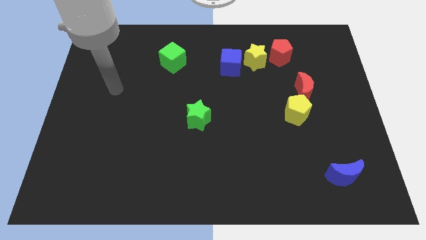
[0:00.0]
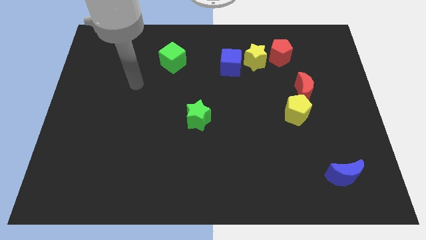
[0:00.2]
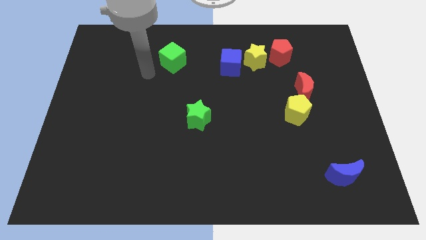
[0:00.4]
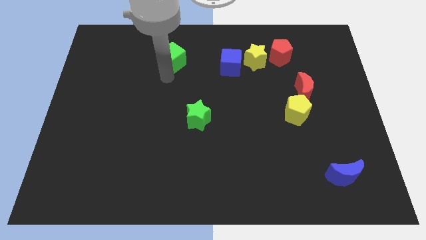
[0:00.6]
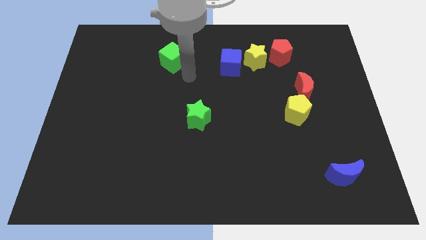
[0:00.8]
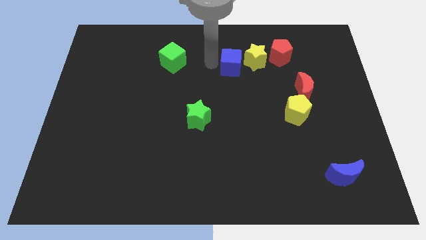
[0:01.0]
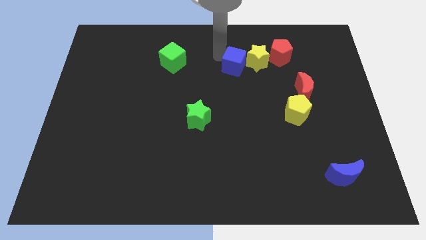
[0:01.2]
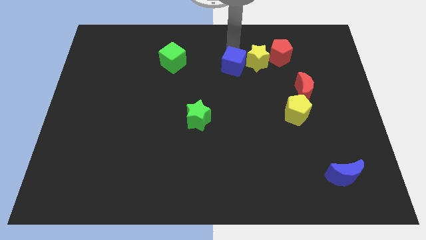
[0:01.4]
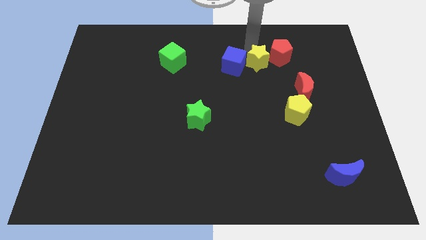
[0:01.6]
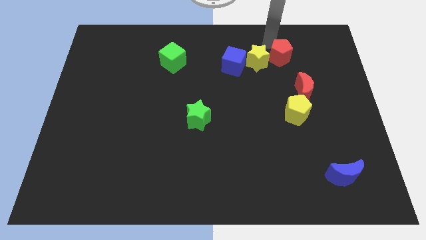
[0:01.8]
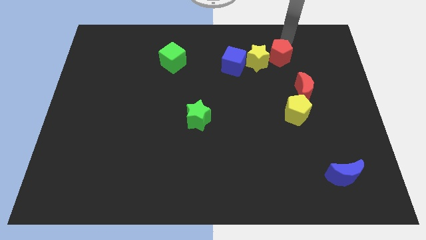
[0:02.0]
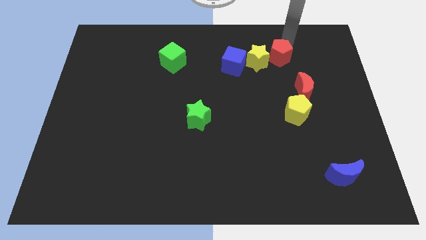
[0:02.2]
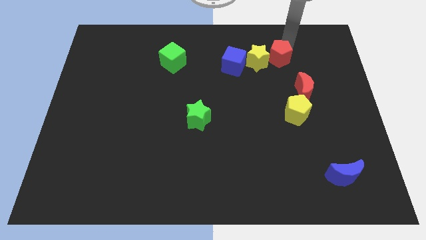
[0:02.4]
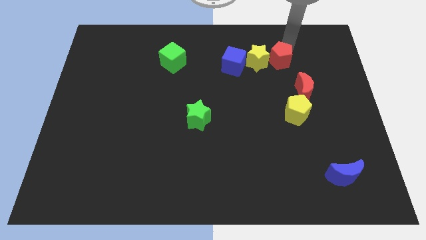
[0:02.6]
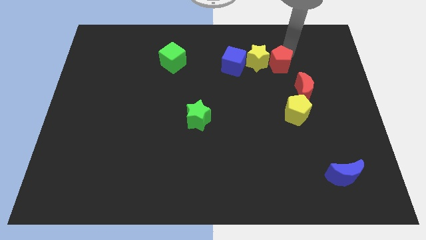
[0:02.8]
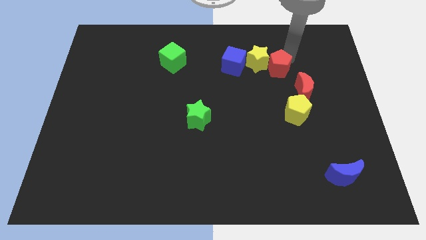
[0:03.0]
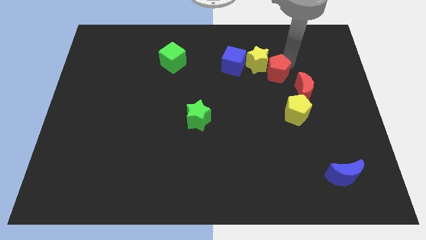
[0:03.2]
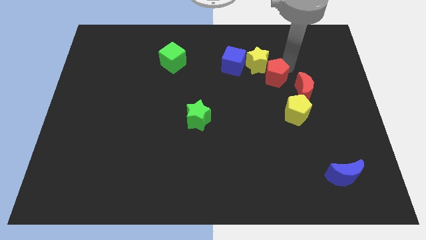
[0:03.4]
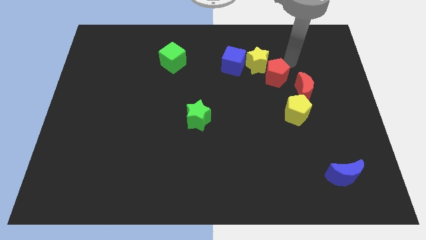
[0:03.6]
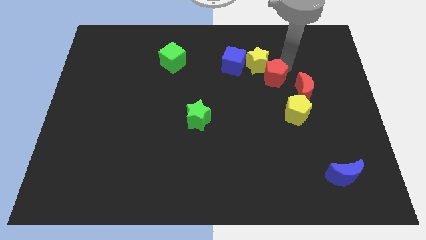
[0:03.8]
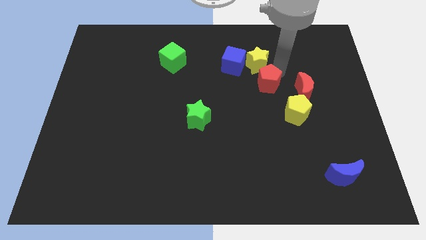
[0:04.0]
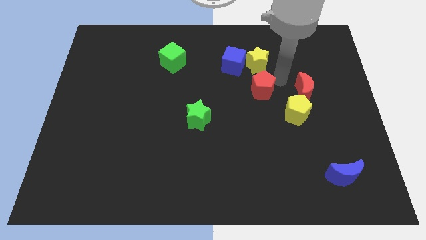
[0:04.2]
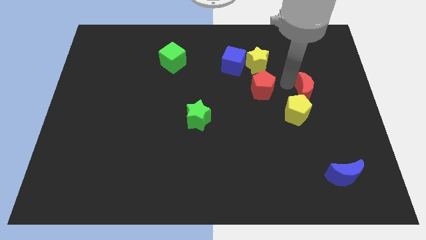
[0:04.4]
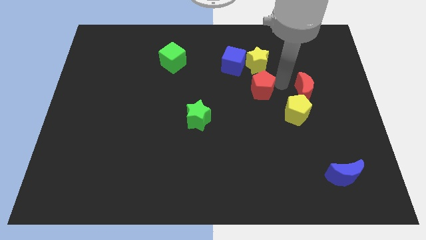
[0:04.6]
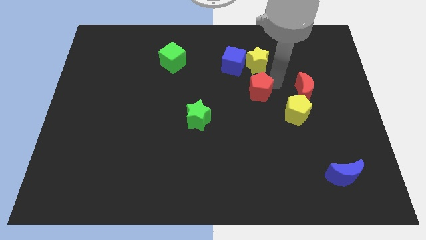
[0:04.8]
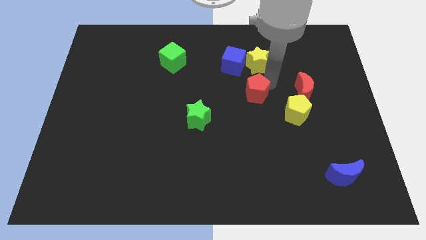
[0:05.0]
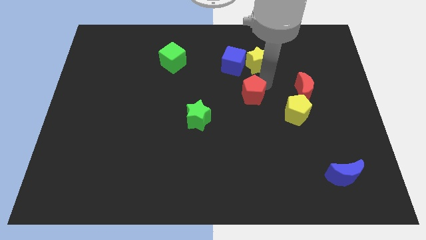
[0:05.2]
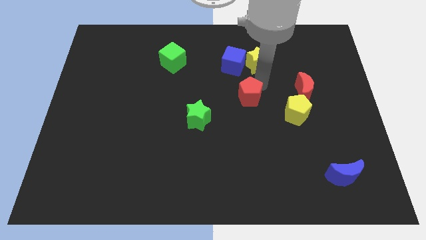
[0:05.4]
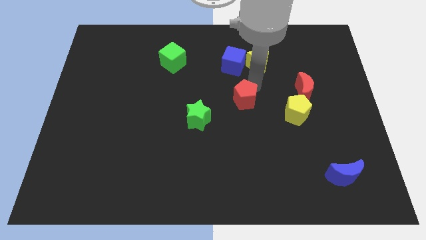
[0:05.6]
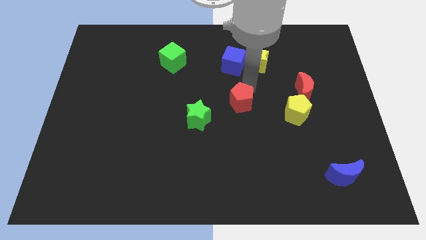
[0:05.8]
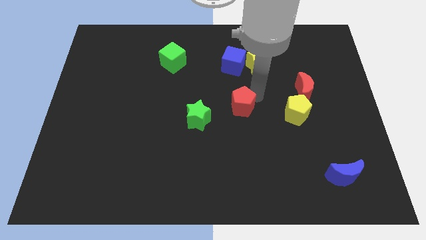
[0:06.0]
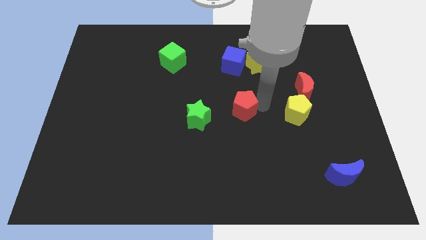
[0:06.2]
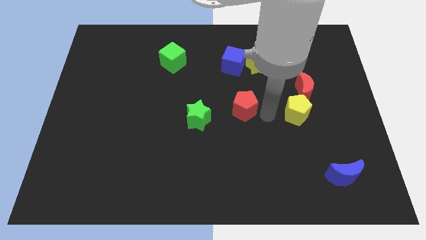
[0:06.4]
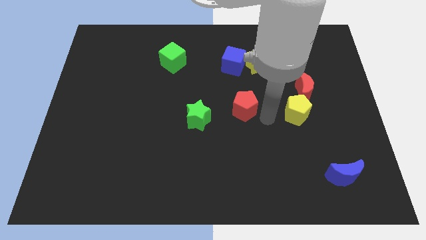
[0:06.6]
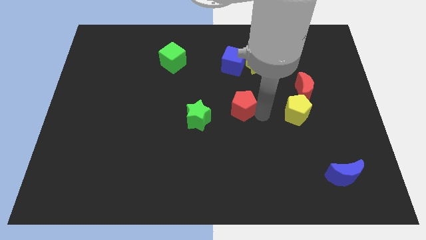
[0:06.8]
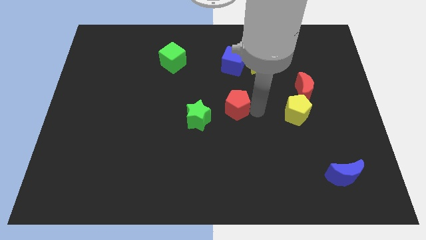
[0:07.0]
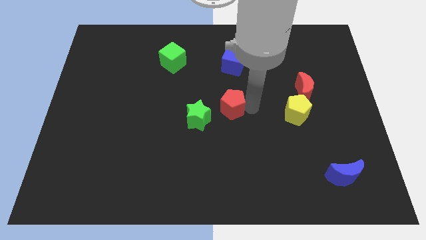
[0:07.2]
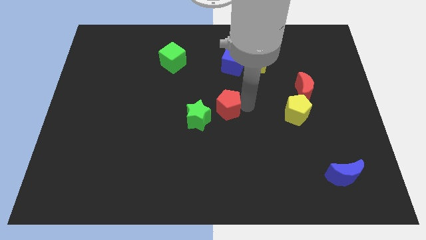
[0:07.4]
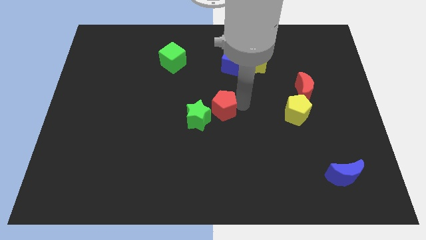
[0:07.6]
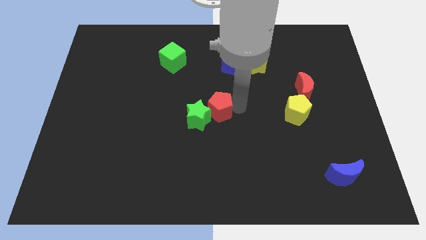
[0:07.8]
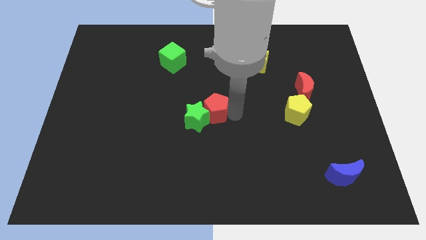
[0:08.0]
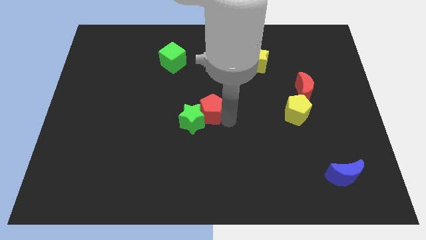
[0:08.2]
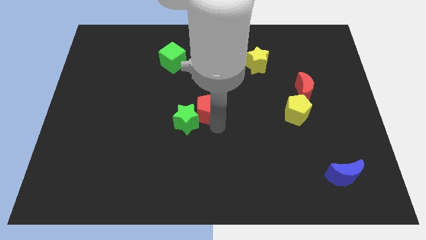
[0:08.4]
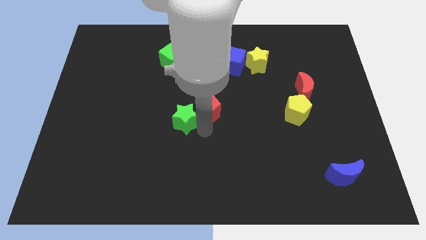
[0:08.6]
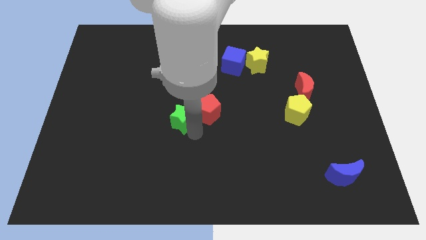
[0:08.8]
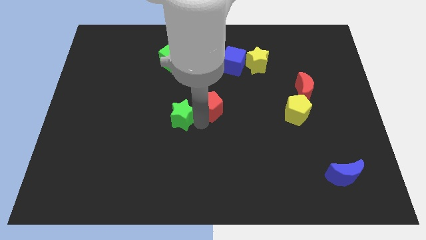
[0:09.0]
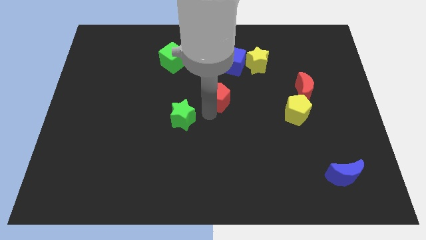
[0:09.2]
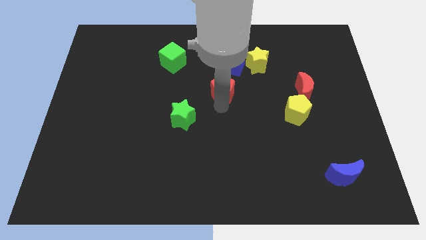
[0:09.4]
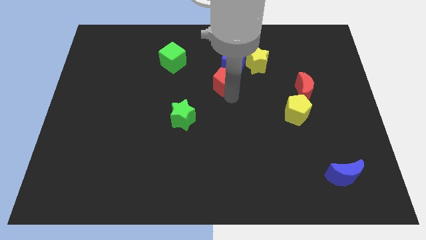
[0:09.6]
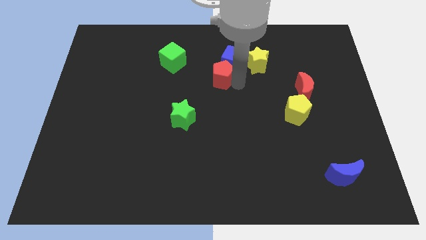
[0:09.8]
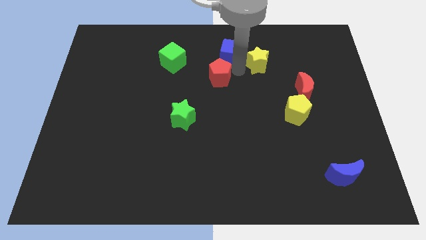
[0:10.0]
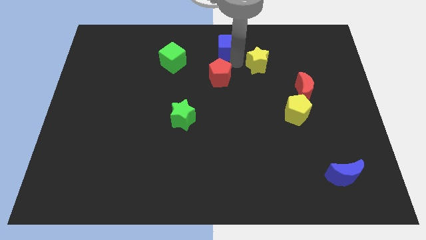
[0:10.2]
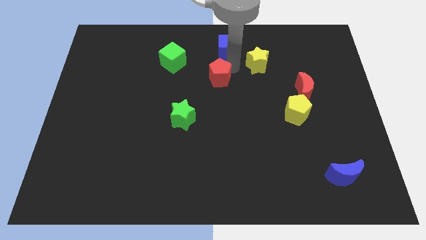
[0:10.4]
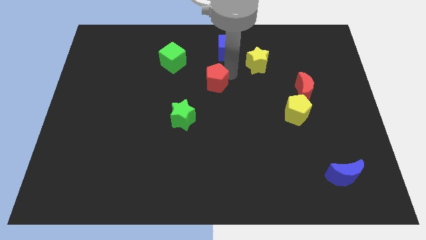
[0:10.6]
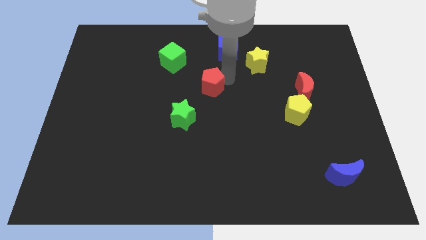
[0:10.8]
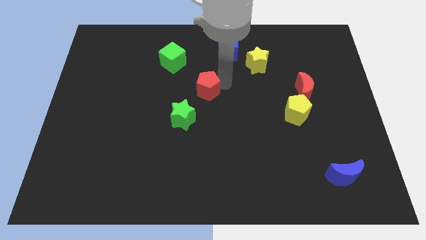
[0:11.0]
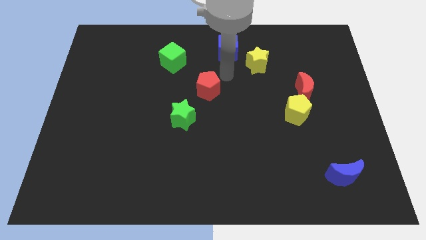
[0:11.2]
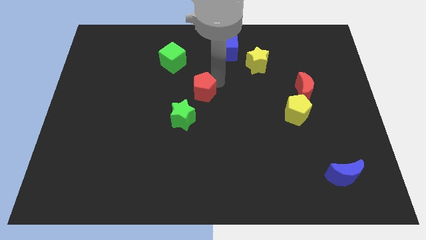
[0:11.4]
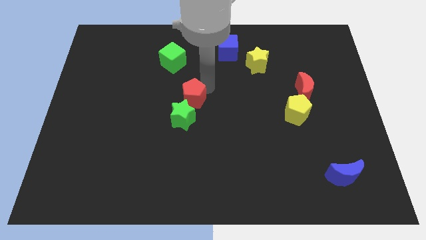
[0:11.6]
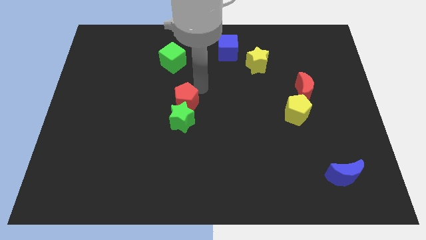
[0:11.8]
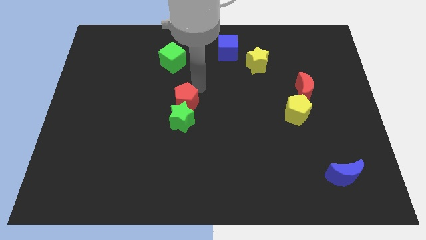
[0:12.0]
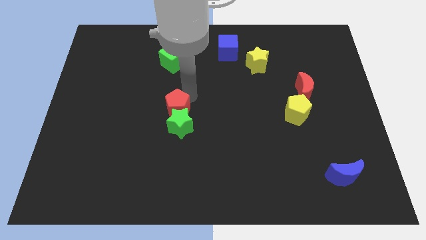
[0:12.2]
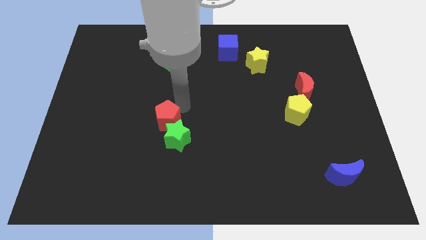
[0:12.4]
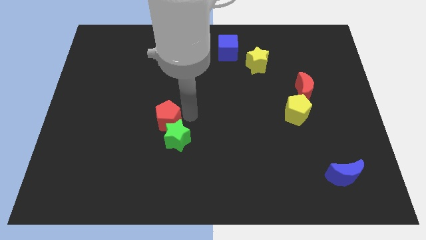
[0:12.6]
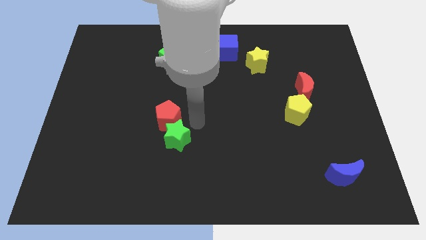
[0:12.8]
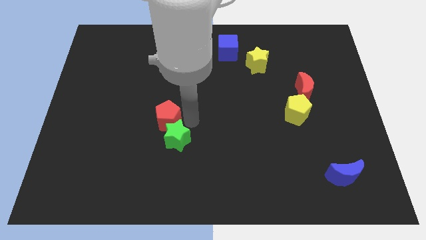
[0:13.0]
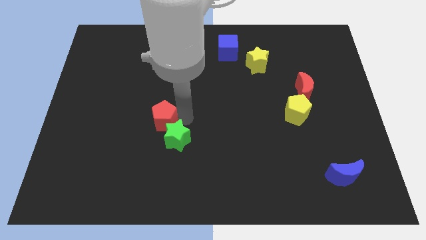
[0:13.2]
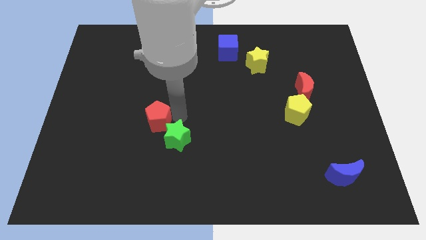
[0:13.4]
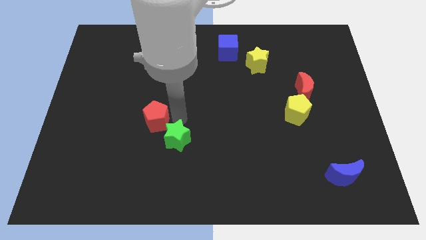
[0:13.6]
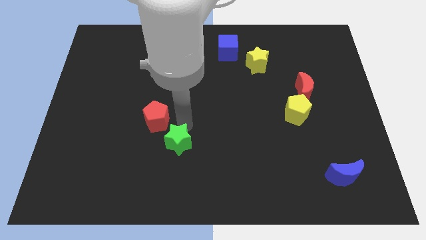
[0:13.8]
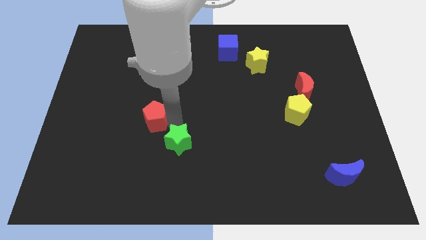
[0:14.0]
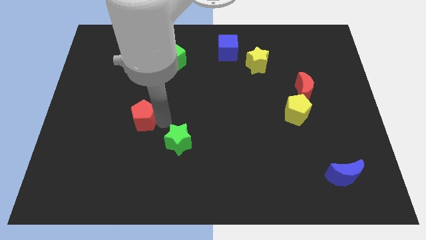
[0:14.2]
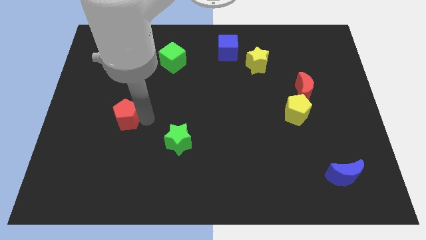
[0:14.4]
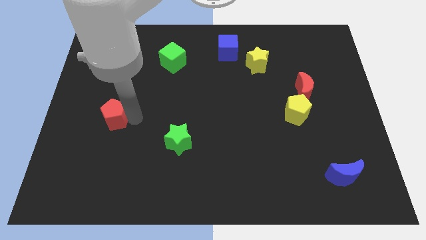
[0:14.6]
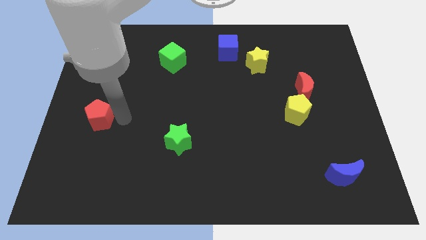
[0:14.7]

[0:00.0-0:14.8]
push the red pentagon to the left side of the board
